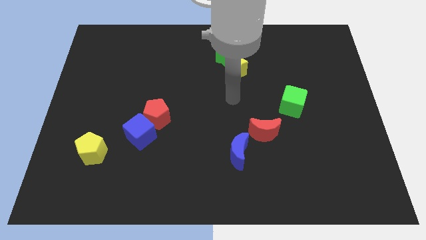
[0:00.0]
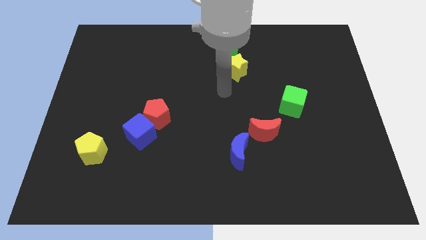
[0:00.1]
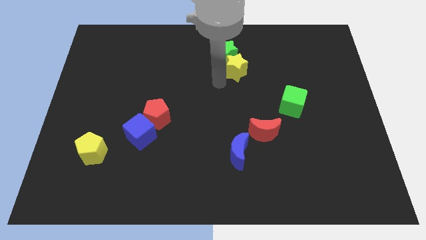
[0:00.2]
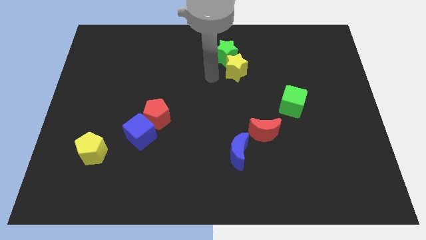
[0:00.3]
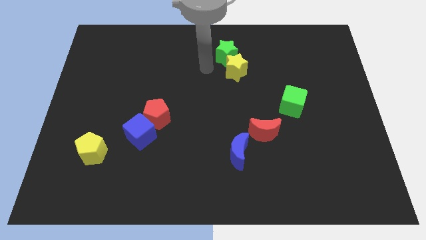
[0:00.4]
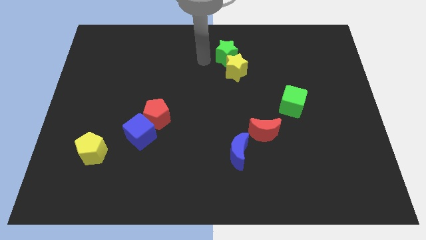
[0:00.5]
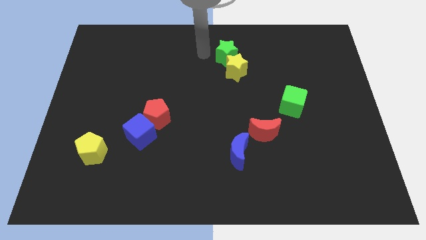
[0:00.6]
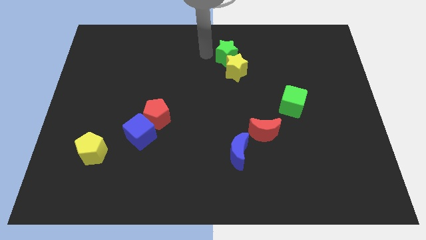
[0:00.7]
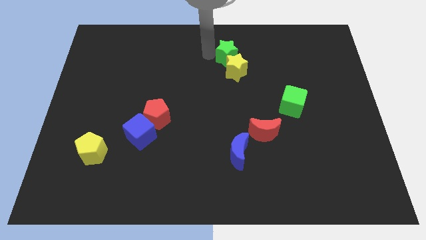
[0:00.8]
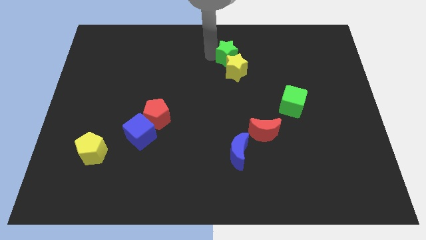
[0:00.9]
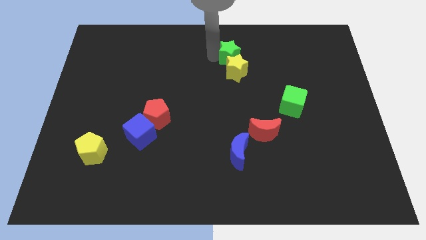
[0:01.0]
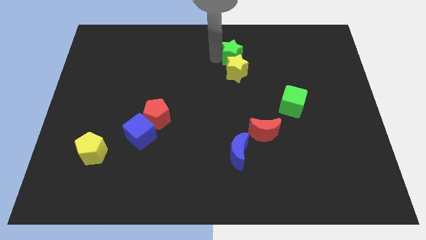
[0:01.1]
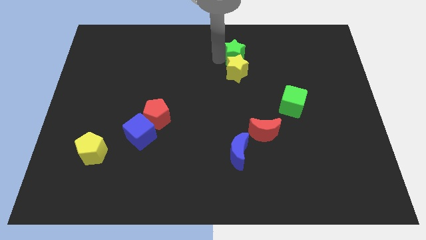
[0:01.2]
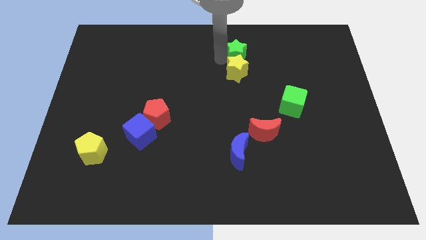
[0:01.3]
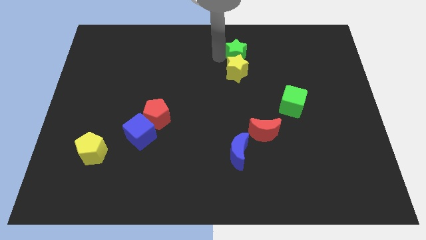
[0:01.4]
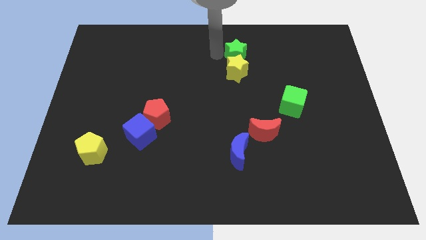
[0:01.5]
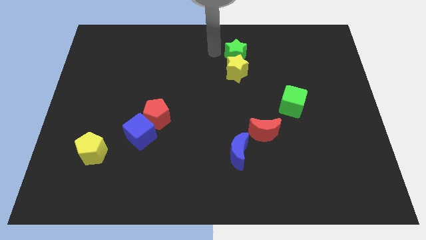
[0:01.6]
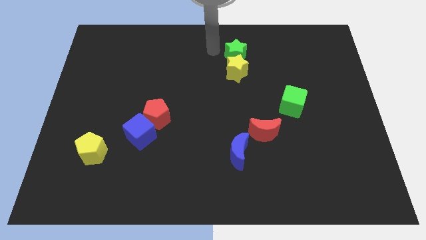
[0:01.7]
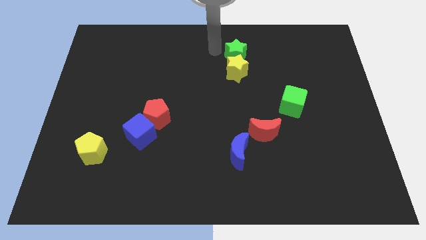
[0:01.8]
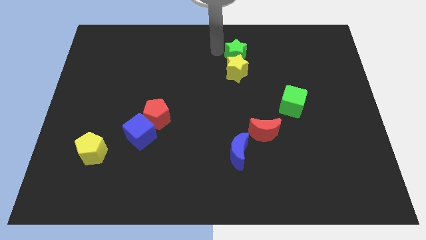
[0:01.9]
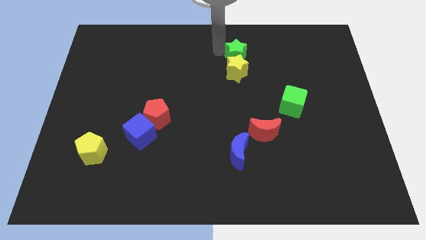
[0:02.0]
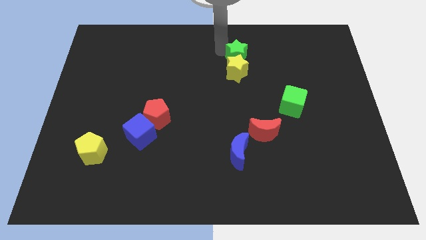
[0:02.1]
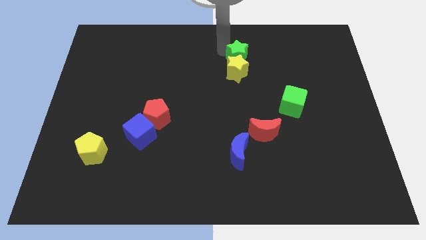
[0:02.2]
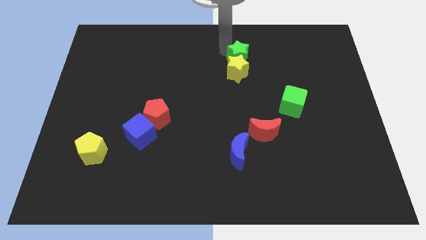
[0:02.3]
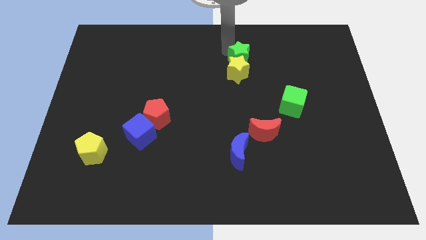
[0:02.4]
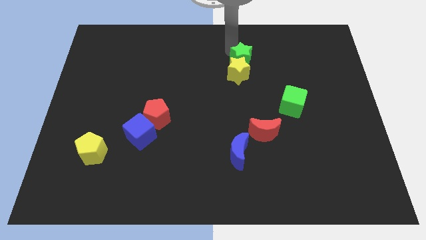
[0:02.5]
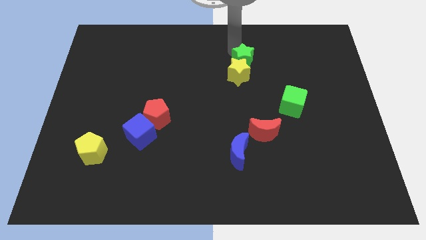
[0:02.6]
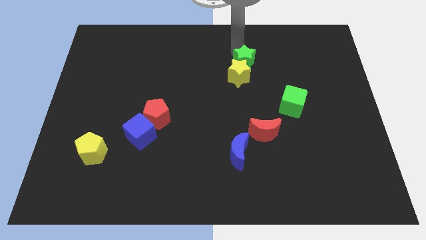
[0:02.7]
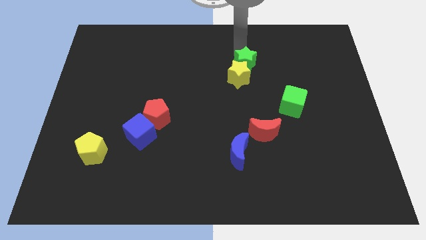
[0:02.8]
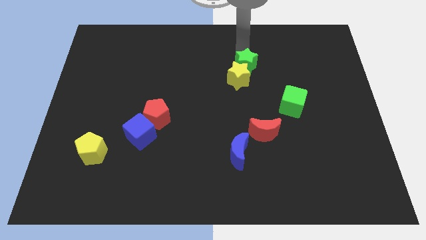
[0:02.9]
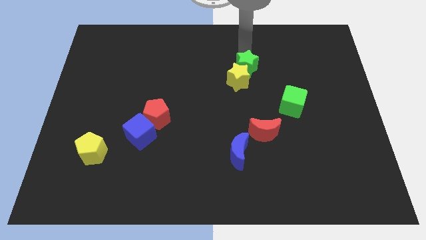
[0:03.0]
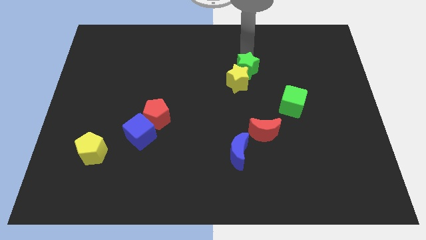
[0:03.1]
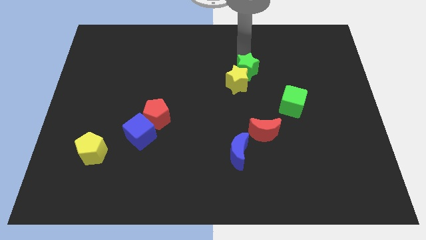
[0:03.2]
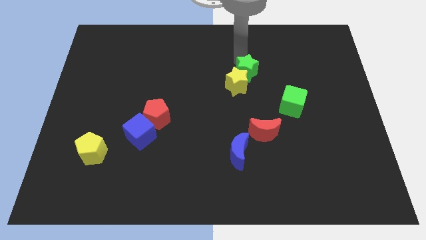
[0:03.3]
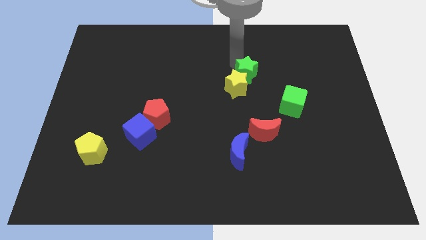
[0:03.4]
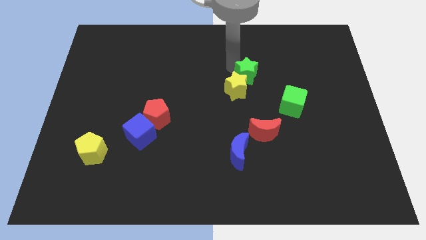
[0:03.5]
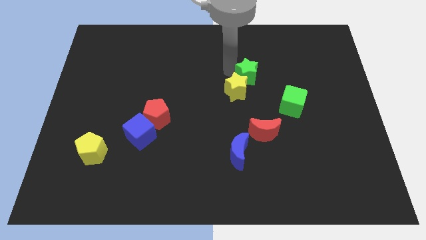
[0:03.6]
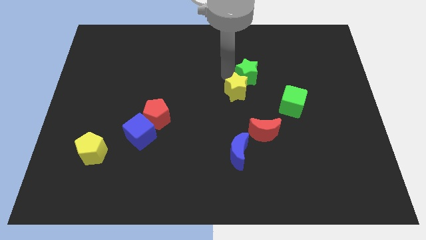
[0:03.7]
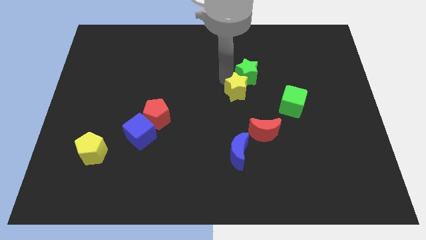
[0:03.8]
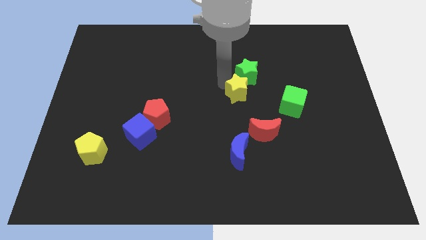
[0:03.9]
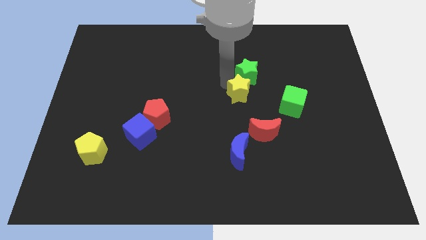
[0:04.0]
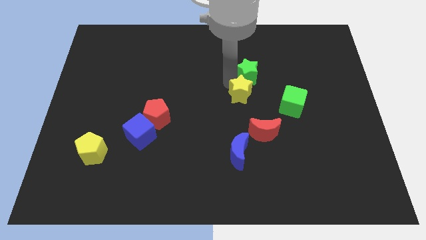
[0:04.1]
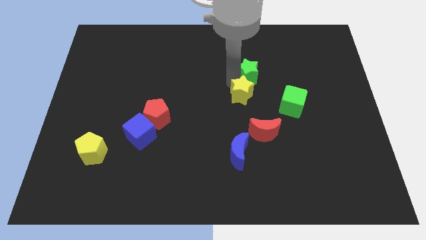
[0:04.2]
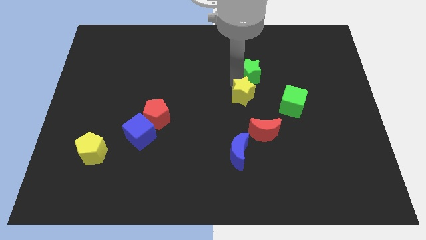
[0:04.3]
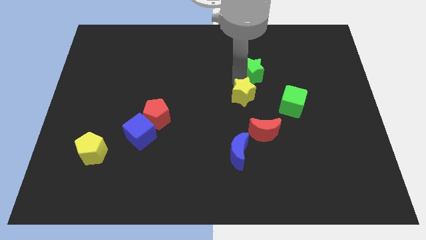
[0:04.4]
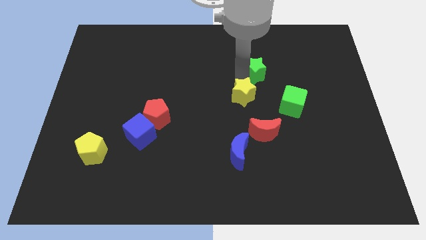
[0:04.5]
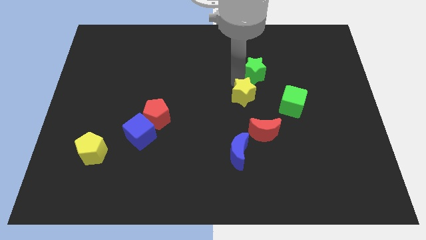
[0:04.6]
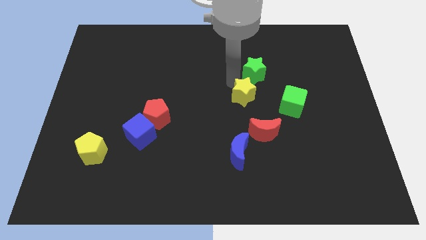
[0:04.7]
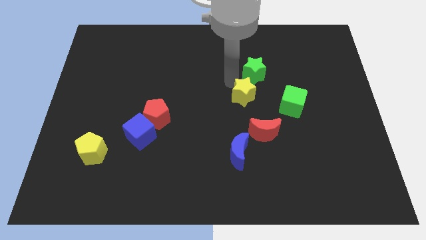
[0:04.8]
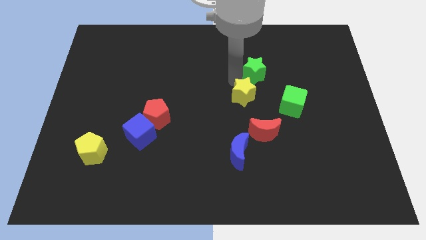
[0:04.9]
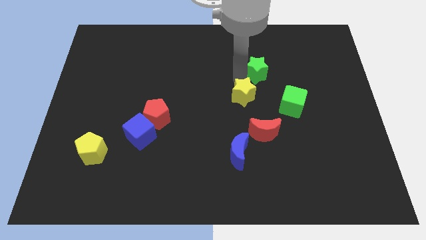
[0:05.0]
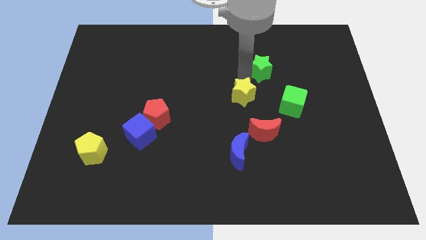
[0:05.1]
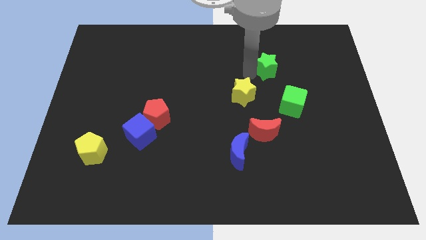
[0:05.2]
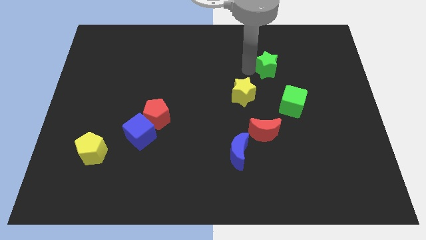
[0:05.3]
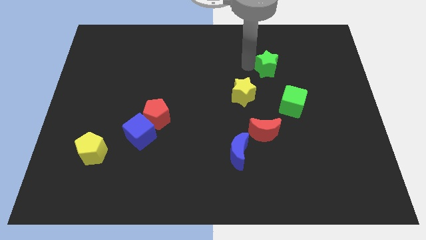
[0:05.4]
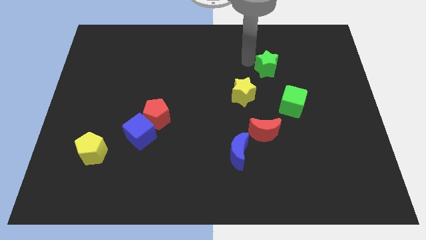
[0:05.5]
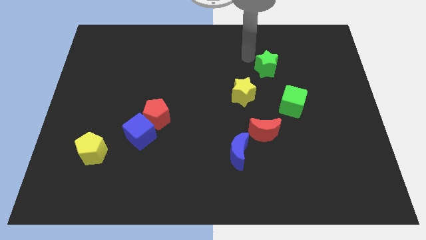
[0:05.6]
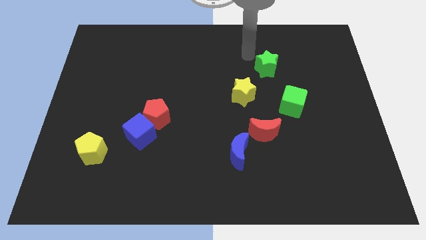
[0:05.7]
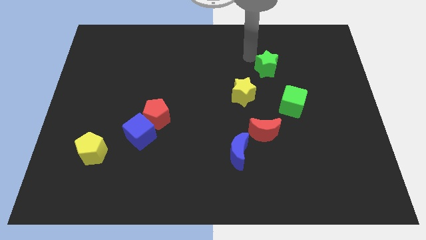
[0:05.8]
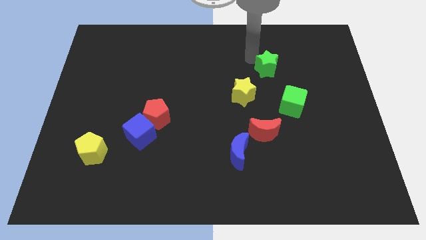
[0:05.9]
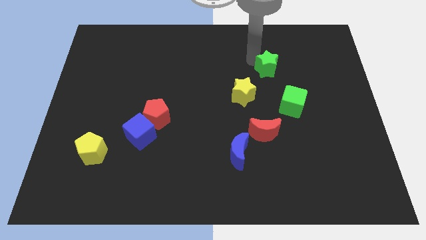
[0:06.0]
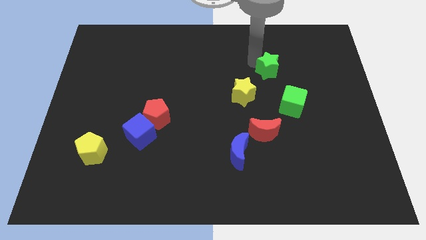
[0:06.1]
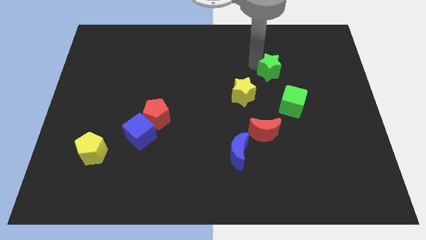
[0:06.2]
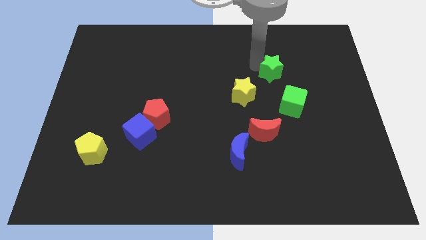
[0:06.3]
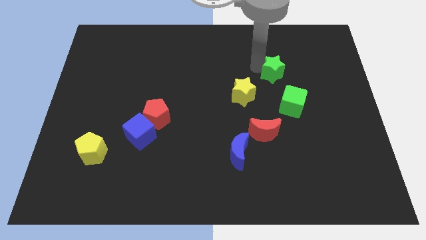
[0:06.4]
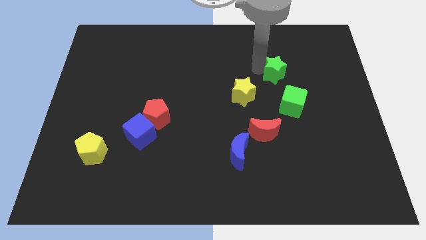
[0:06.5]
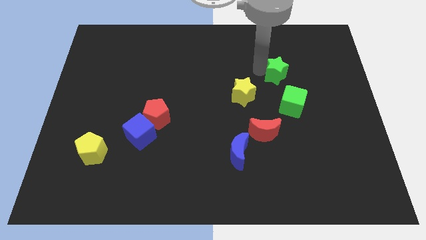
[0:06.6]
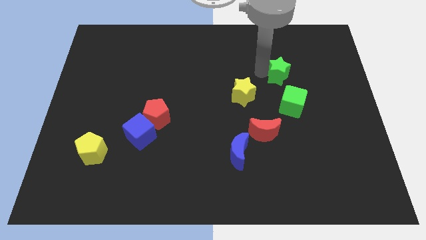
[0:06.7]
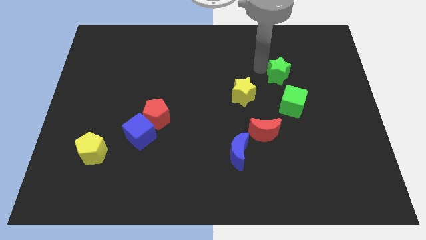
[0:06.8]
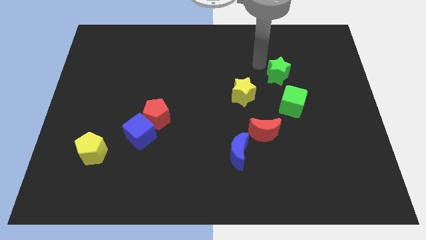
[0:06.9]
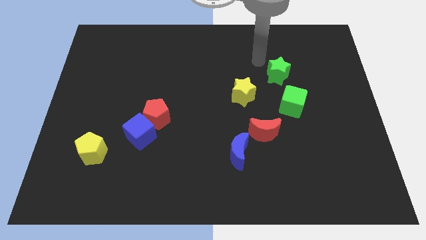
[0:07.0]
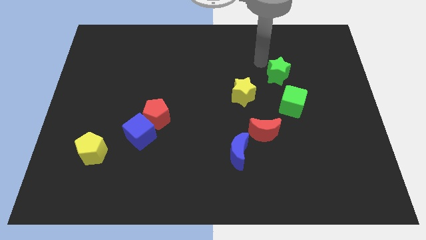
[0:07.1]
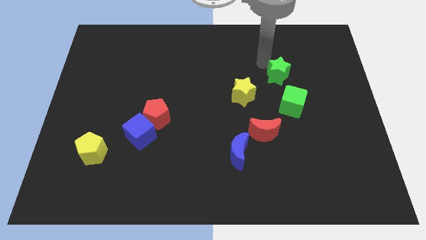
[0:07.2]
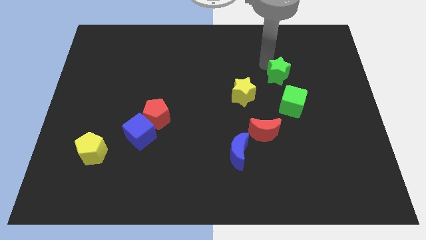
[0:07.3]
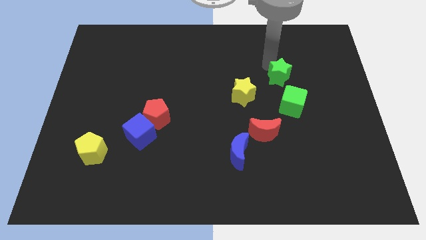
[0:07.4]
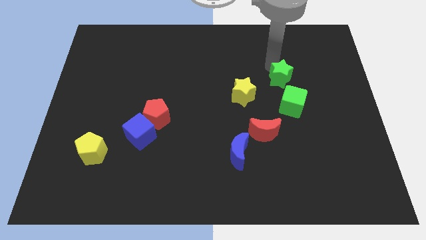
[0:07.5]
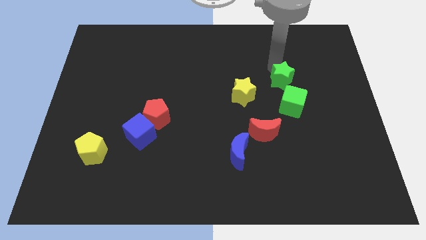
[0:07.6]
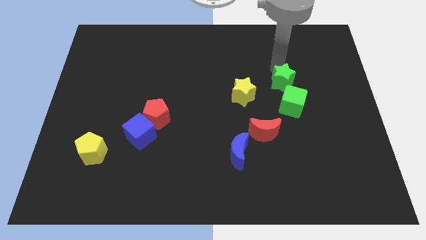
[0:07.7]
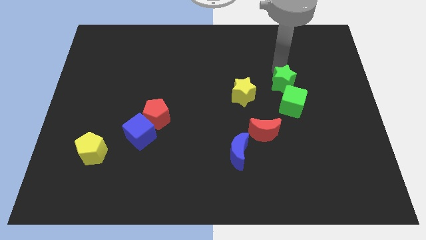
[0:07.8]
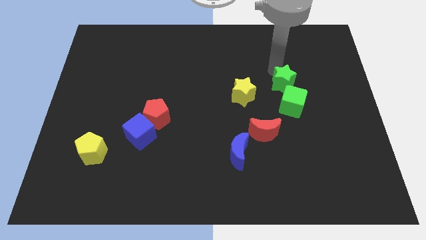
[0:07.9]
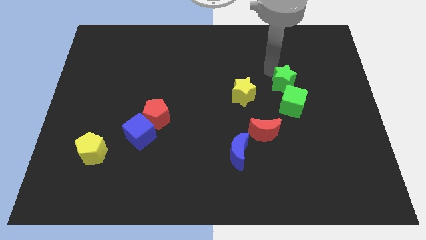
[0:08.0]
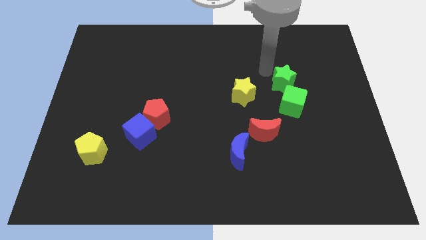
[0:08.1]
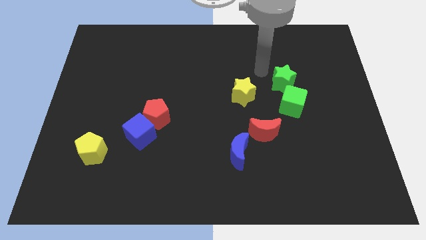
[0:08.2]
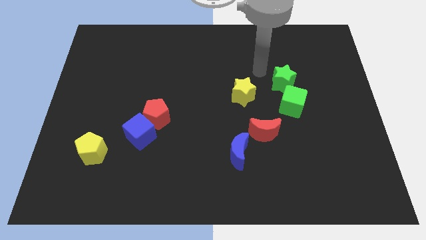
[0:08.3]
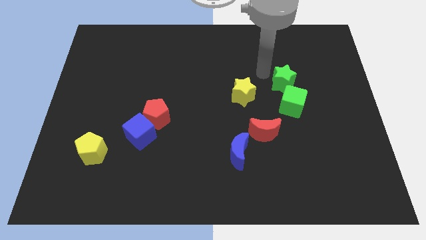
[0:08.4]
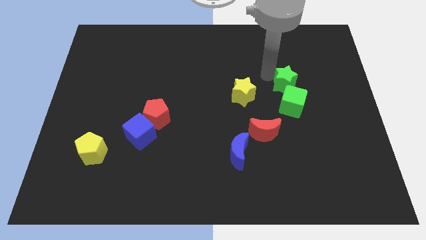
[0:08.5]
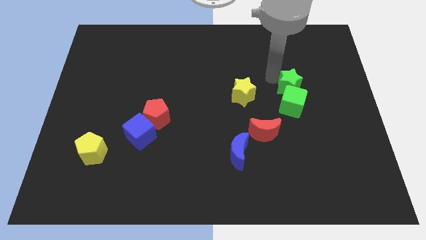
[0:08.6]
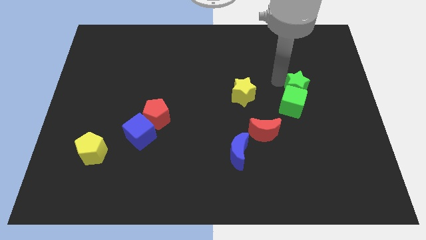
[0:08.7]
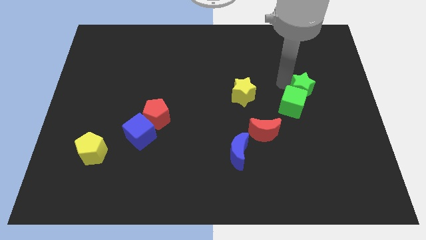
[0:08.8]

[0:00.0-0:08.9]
slide the green star down and right diagonally
